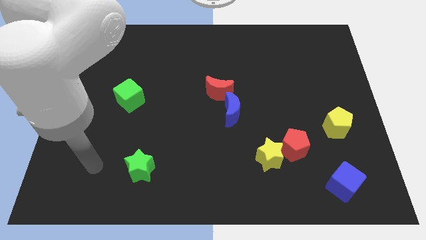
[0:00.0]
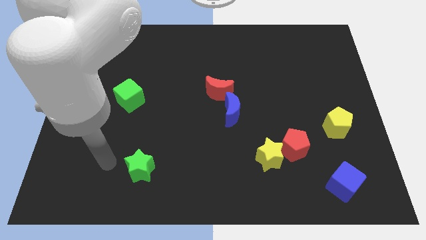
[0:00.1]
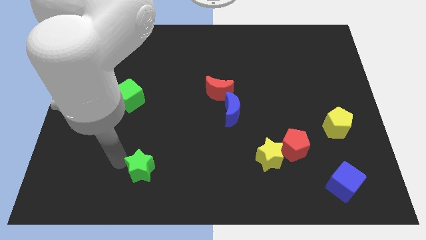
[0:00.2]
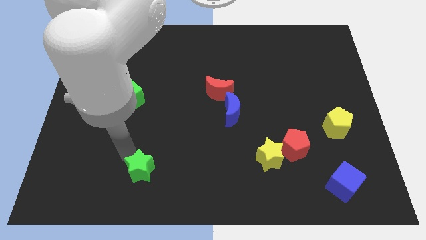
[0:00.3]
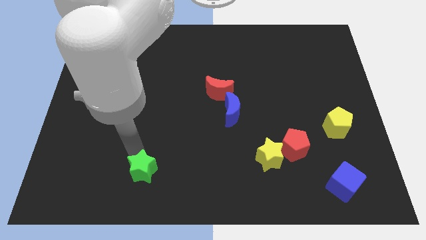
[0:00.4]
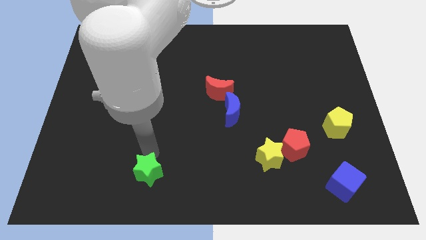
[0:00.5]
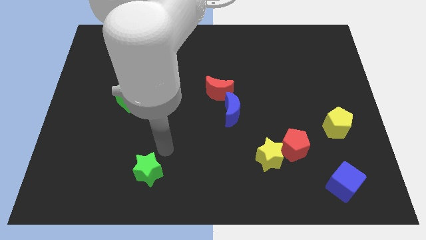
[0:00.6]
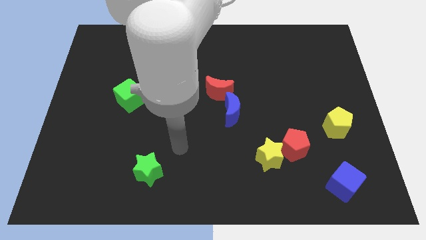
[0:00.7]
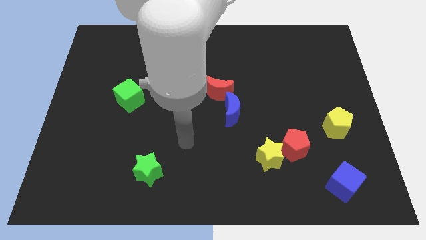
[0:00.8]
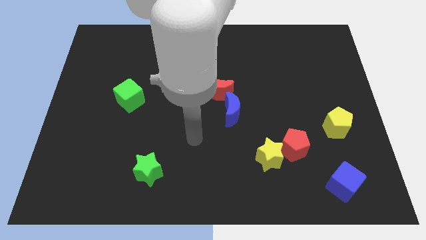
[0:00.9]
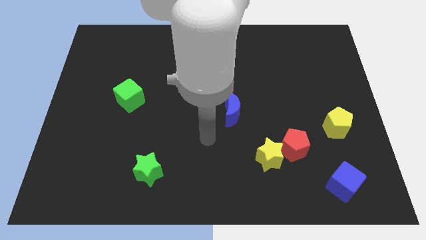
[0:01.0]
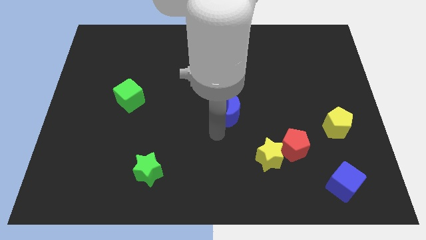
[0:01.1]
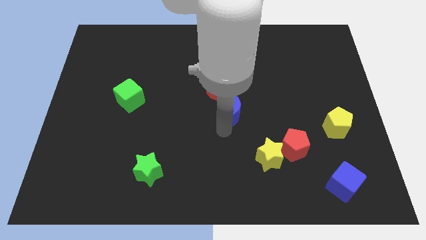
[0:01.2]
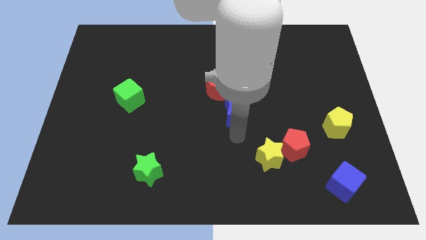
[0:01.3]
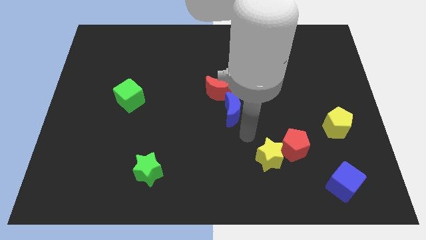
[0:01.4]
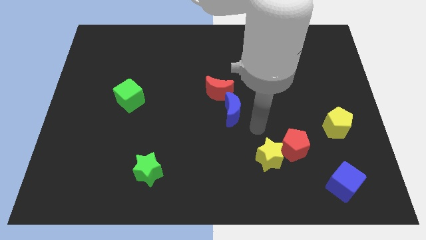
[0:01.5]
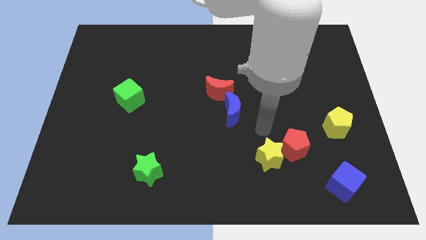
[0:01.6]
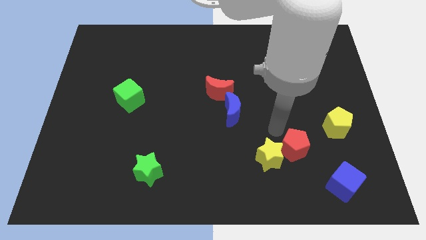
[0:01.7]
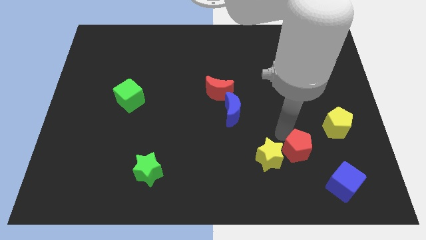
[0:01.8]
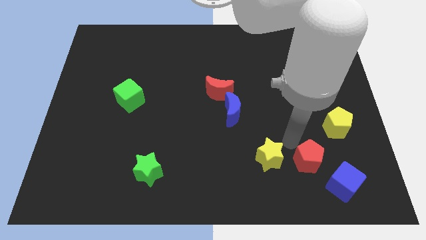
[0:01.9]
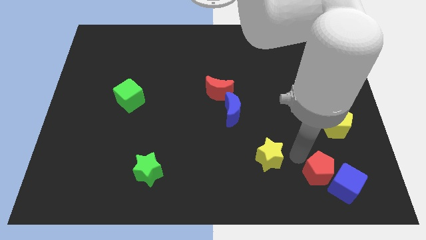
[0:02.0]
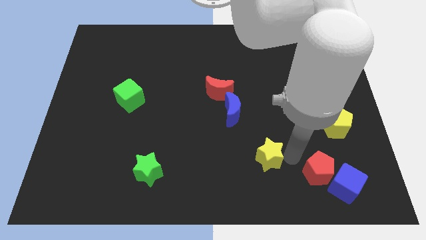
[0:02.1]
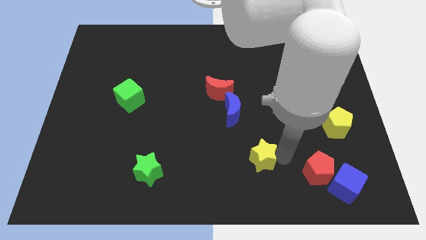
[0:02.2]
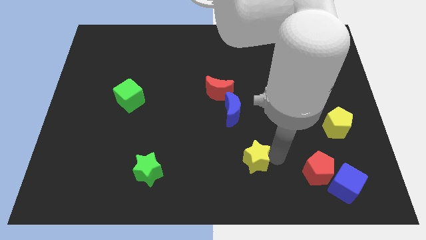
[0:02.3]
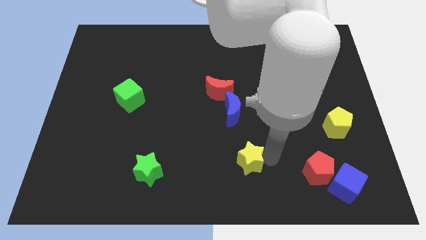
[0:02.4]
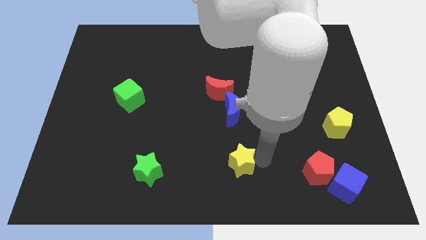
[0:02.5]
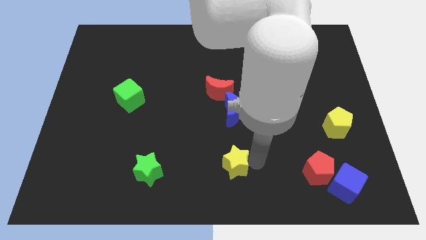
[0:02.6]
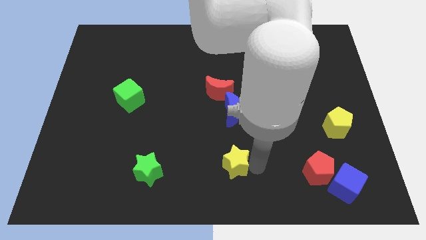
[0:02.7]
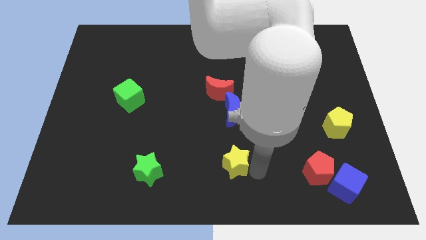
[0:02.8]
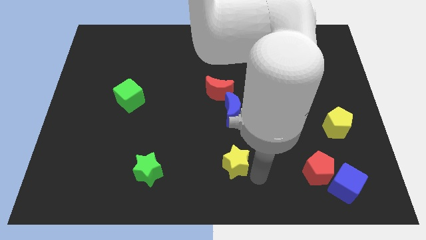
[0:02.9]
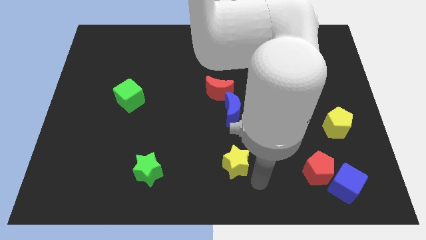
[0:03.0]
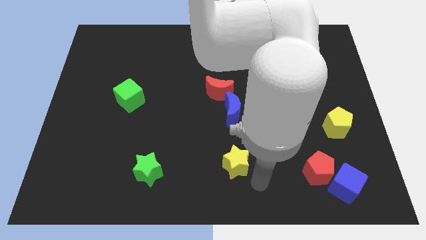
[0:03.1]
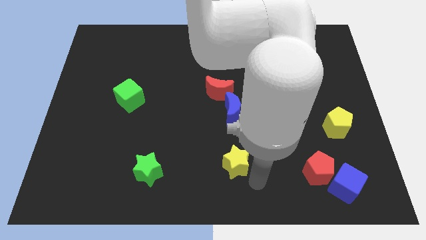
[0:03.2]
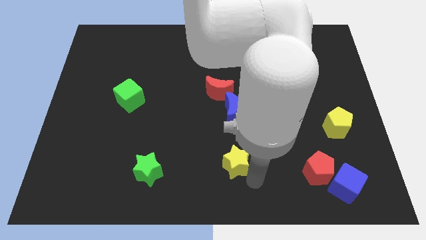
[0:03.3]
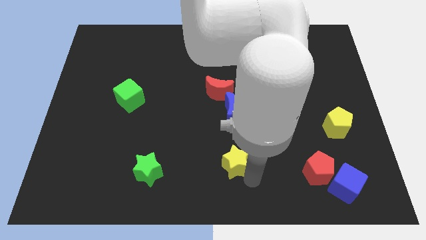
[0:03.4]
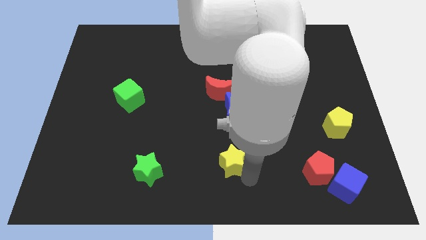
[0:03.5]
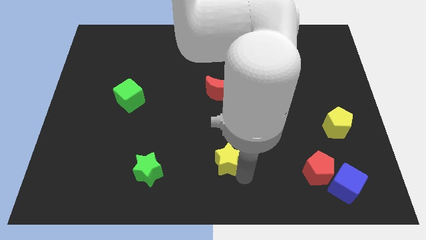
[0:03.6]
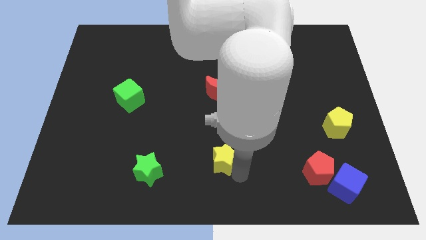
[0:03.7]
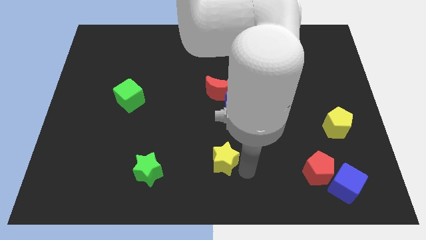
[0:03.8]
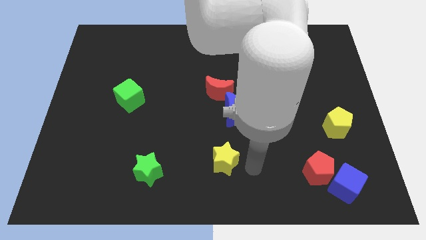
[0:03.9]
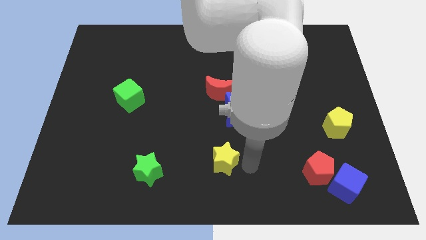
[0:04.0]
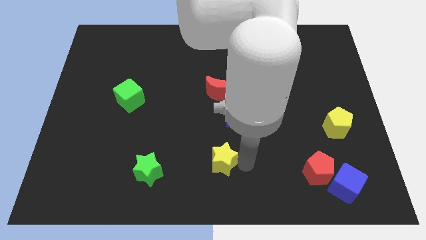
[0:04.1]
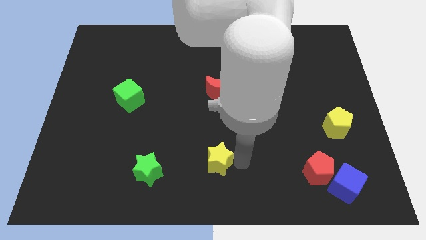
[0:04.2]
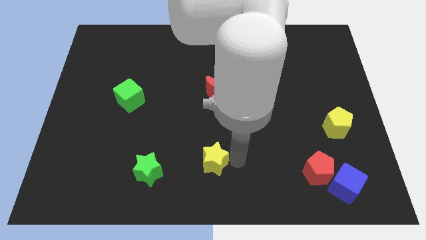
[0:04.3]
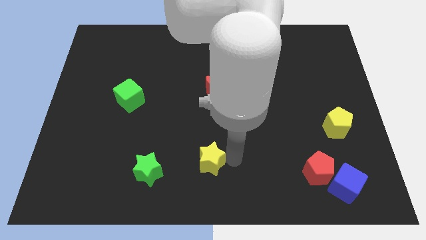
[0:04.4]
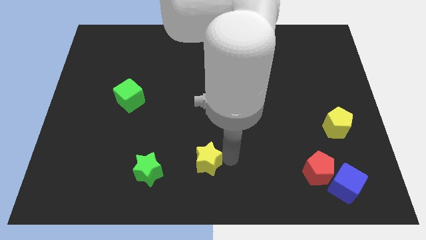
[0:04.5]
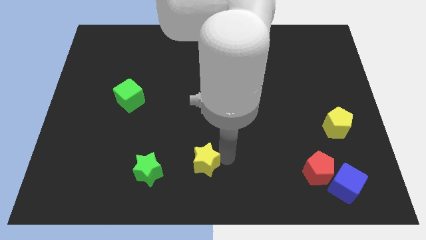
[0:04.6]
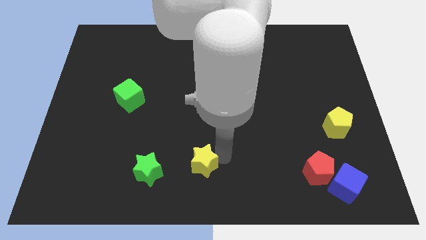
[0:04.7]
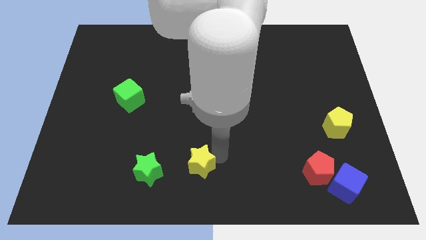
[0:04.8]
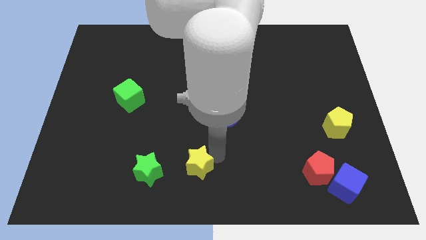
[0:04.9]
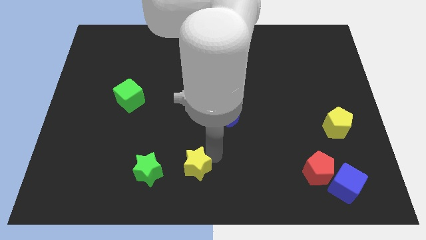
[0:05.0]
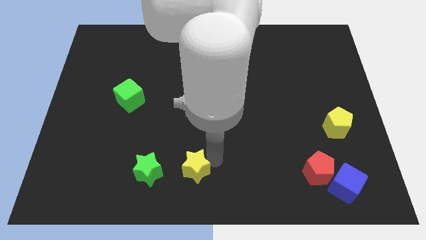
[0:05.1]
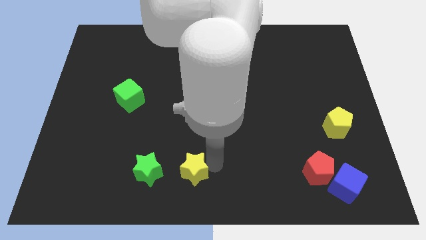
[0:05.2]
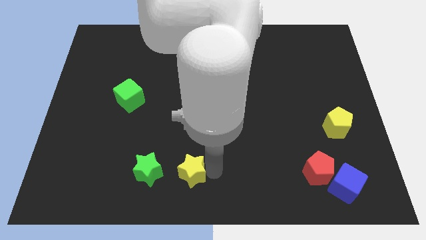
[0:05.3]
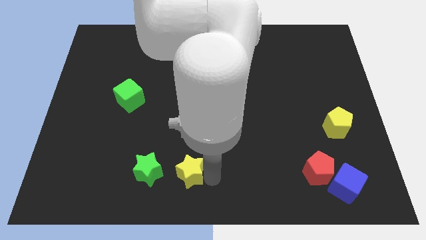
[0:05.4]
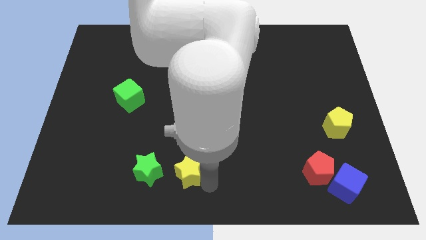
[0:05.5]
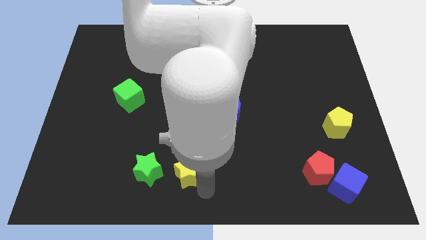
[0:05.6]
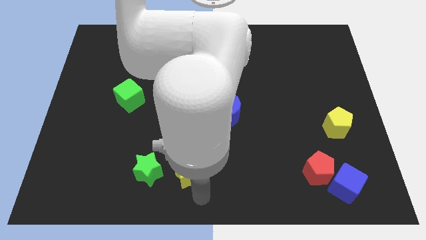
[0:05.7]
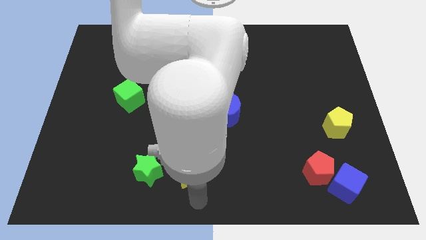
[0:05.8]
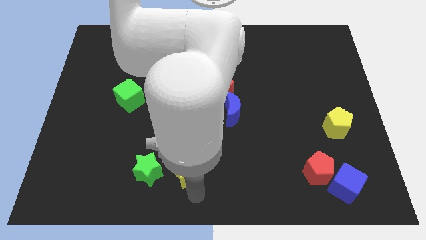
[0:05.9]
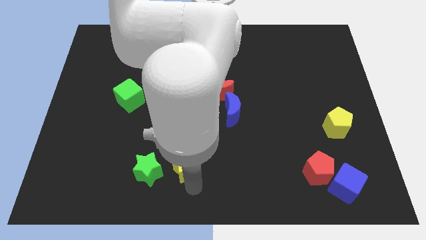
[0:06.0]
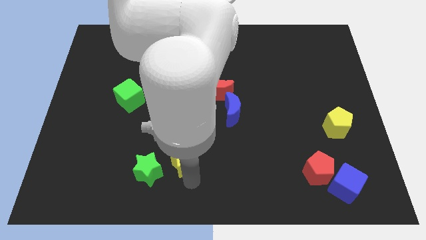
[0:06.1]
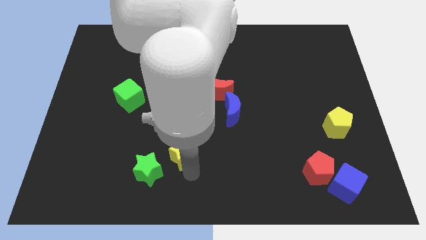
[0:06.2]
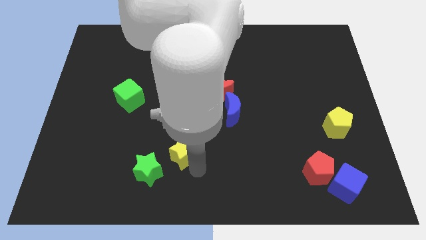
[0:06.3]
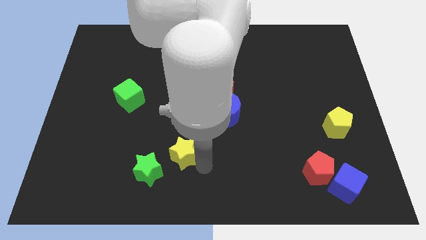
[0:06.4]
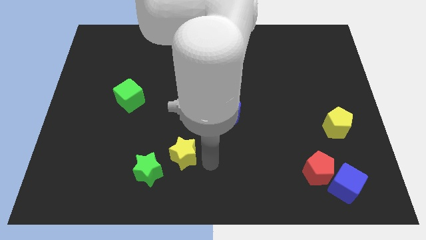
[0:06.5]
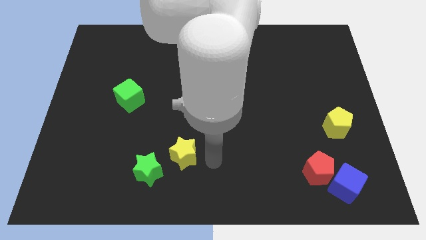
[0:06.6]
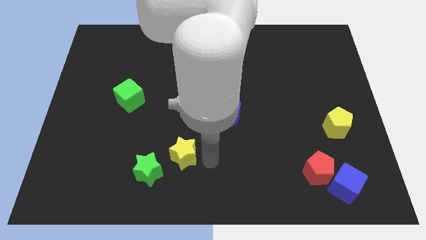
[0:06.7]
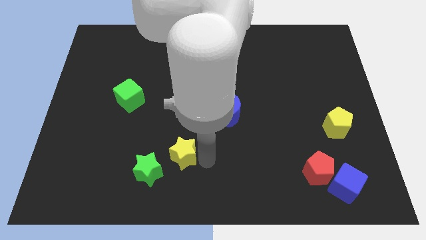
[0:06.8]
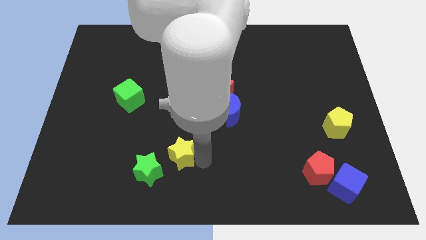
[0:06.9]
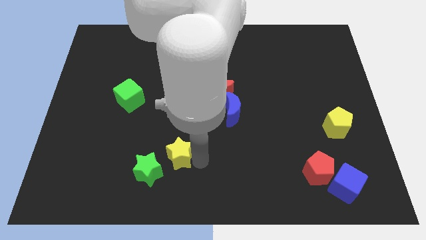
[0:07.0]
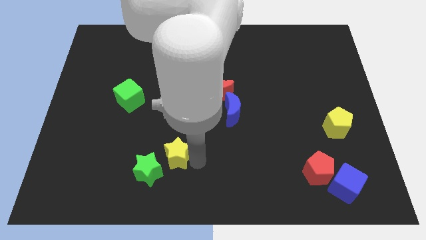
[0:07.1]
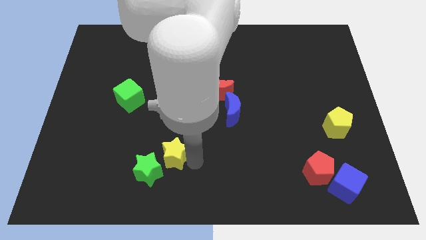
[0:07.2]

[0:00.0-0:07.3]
move the yellow star to the left

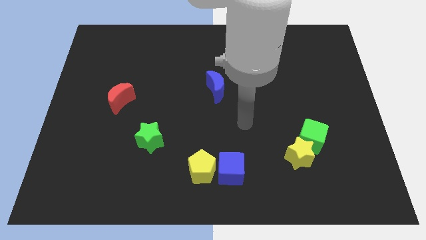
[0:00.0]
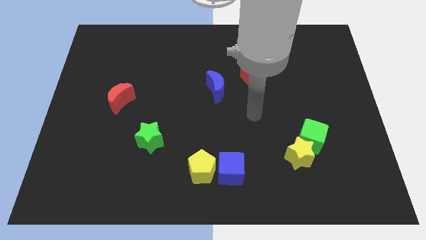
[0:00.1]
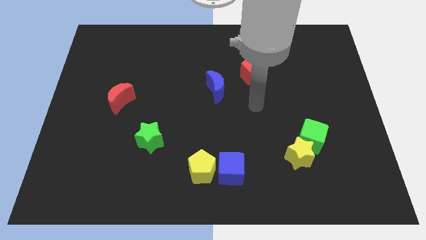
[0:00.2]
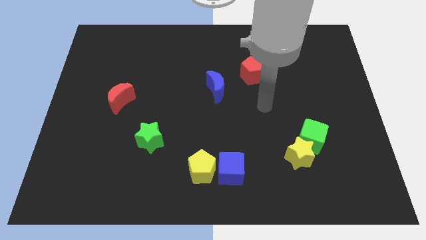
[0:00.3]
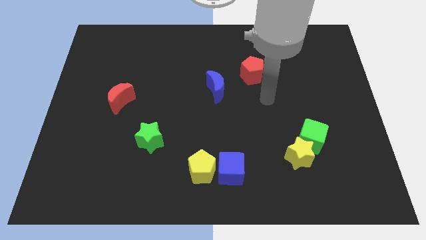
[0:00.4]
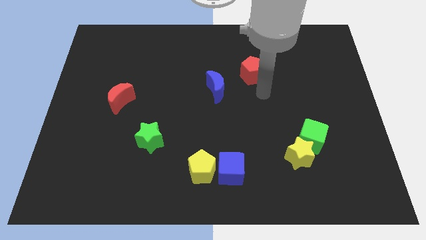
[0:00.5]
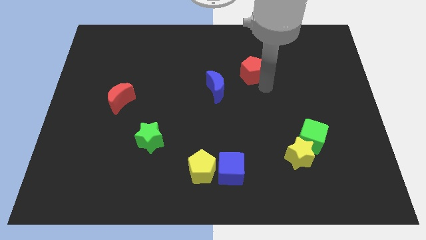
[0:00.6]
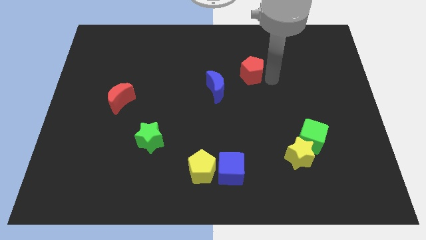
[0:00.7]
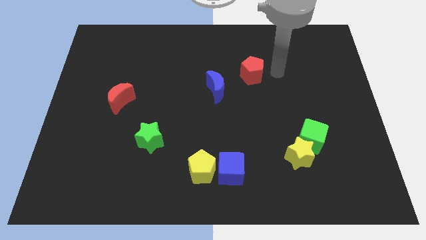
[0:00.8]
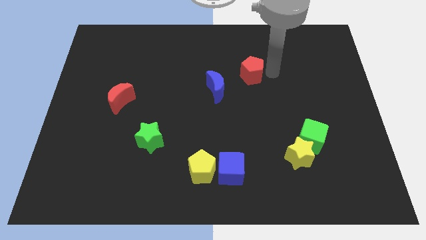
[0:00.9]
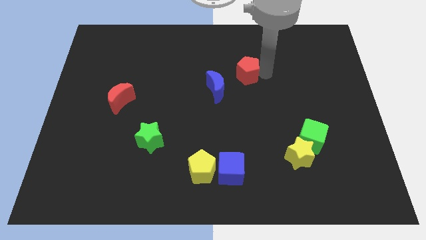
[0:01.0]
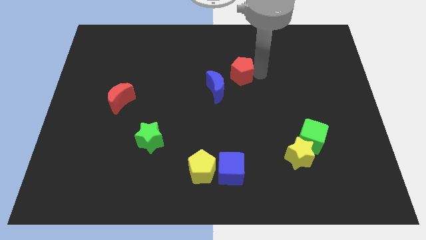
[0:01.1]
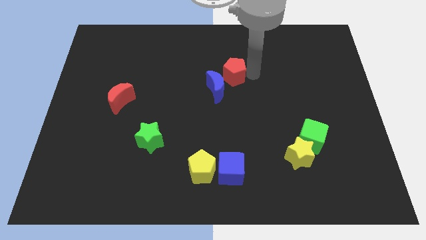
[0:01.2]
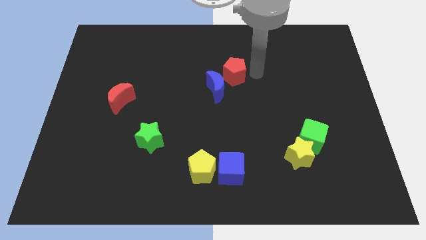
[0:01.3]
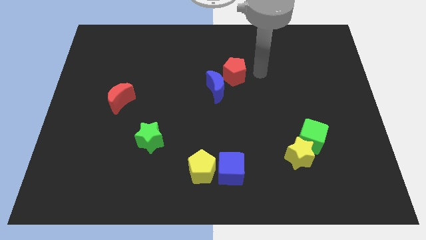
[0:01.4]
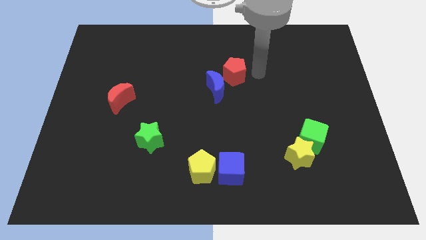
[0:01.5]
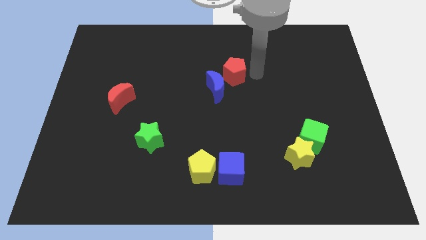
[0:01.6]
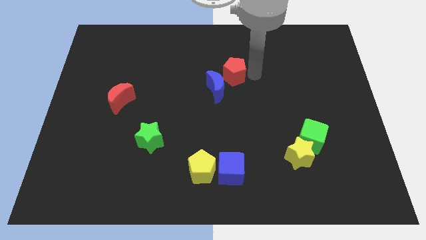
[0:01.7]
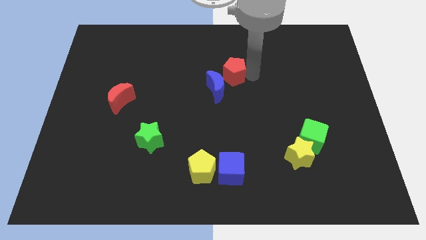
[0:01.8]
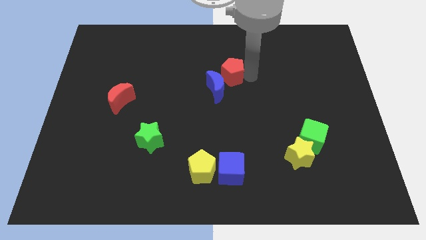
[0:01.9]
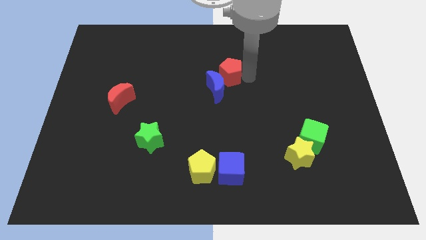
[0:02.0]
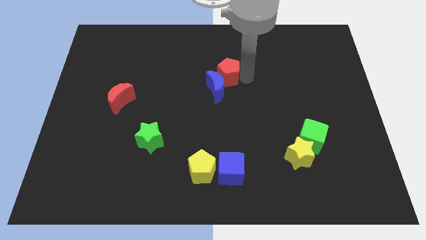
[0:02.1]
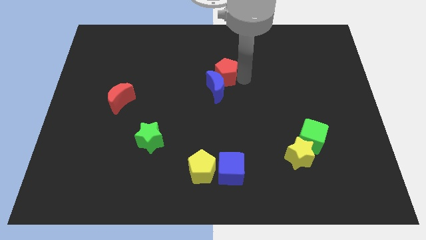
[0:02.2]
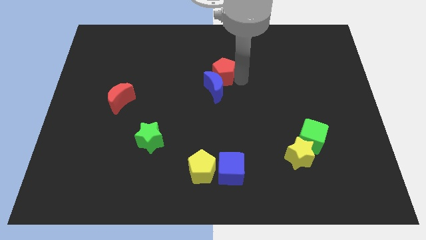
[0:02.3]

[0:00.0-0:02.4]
move the red pentagon left a little
